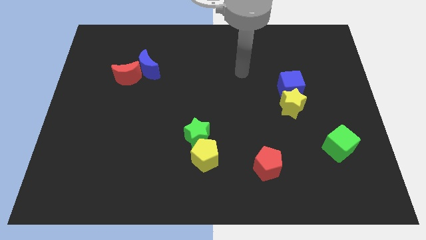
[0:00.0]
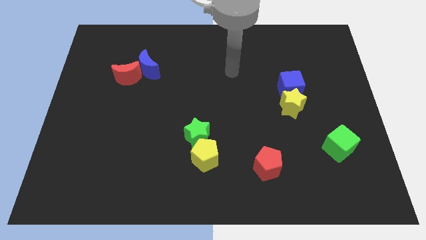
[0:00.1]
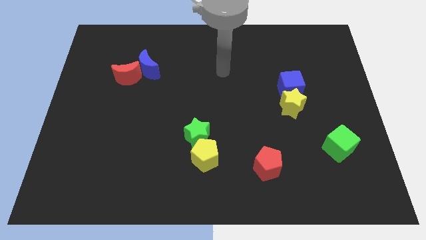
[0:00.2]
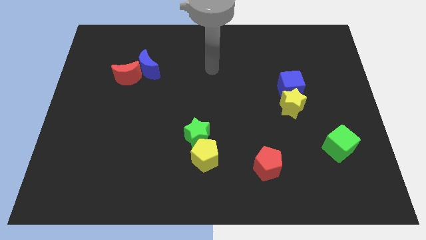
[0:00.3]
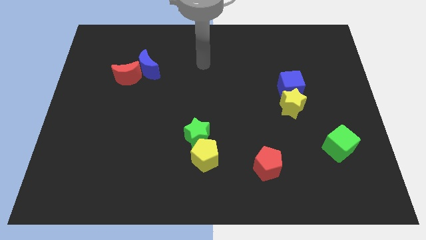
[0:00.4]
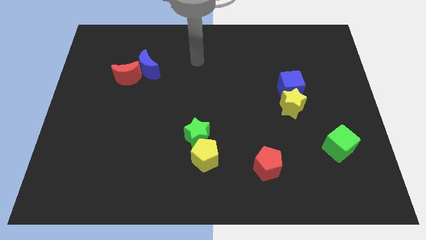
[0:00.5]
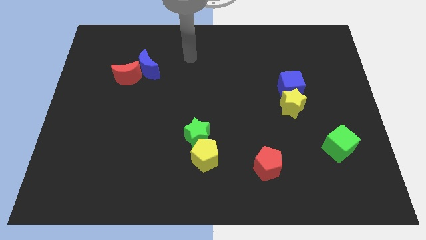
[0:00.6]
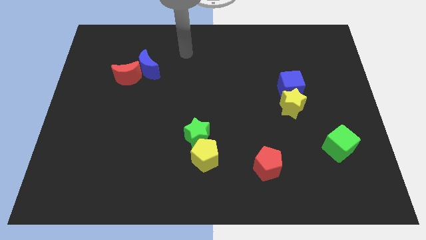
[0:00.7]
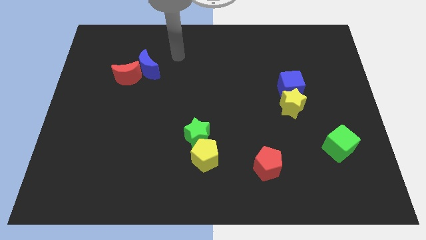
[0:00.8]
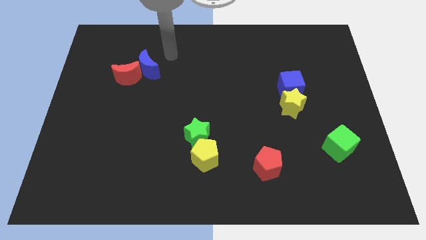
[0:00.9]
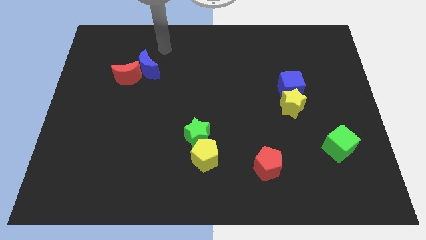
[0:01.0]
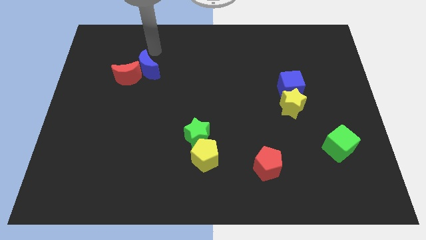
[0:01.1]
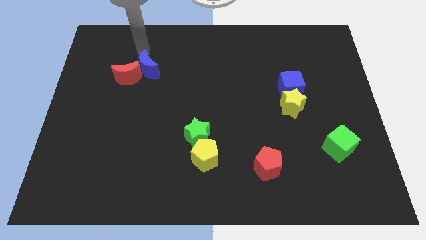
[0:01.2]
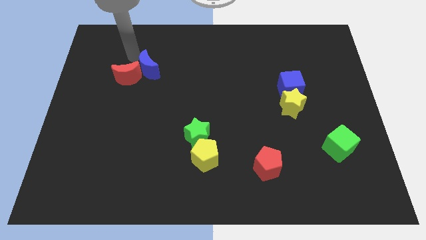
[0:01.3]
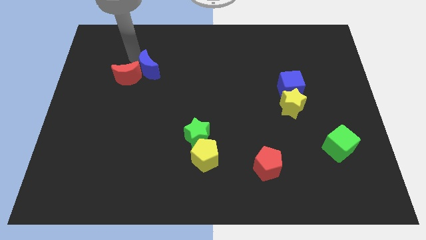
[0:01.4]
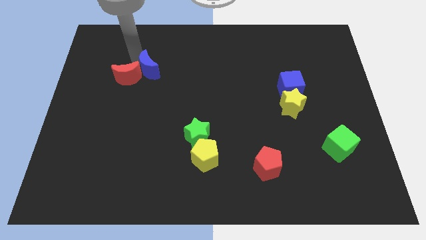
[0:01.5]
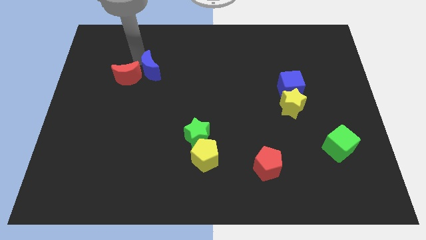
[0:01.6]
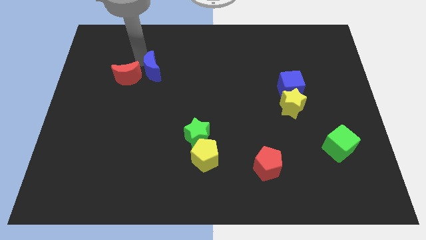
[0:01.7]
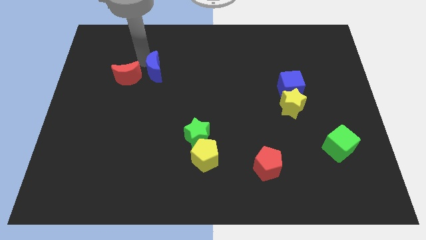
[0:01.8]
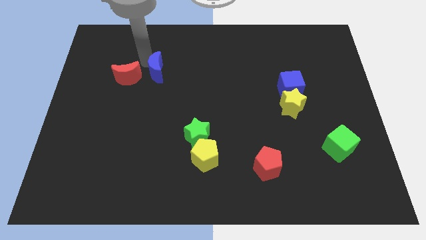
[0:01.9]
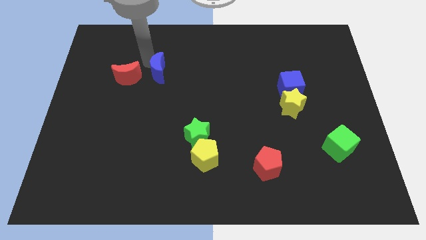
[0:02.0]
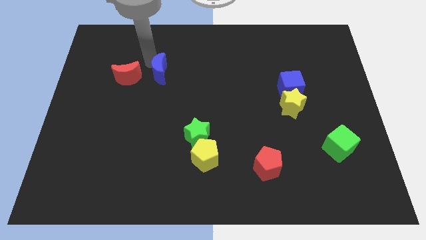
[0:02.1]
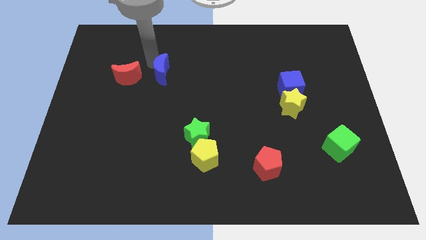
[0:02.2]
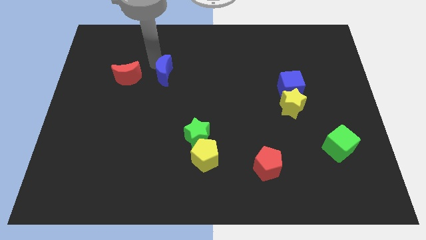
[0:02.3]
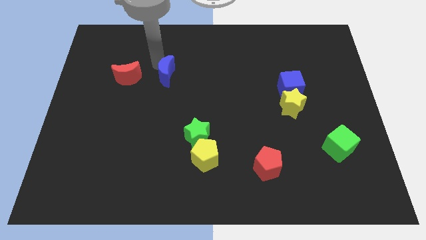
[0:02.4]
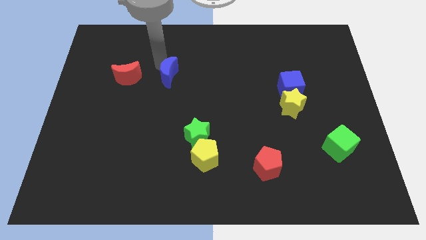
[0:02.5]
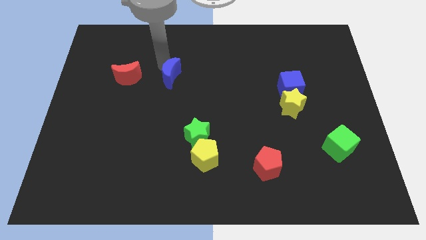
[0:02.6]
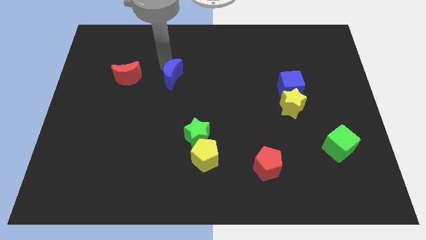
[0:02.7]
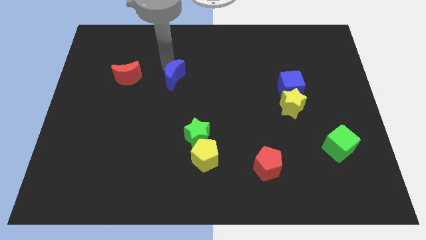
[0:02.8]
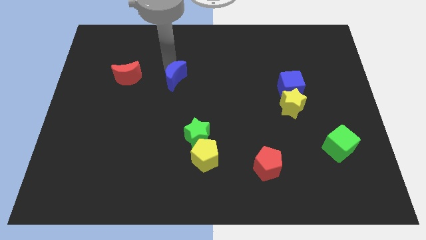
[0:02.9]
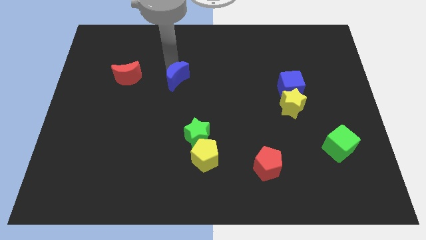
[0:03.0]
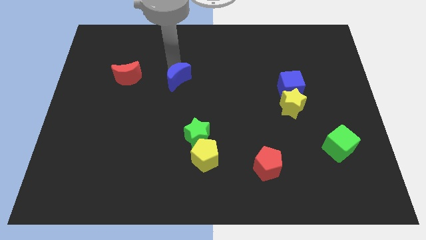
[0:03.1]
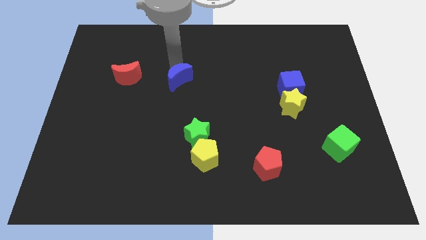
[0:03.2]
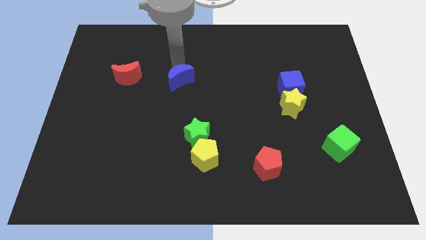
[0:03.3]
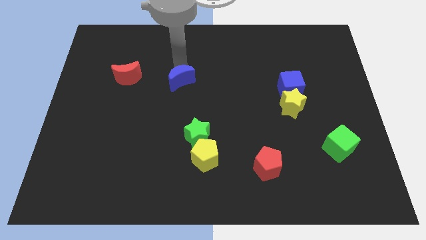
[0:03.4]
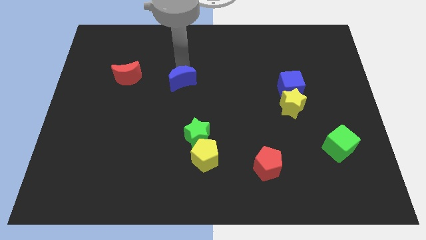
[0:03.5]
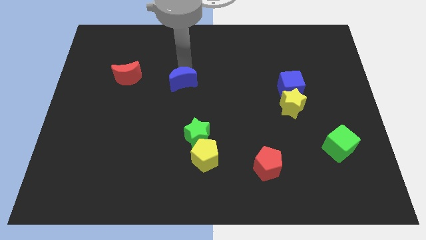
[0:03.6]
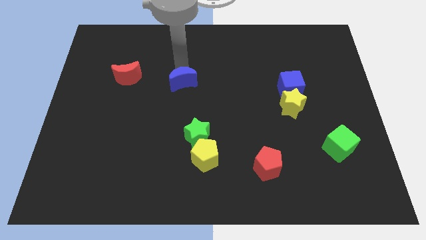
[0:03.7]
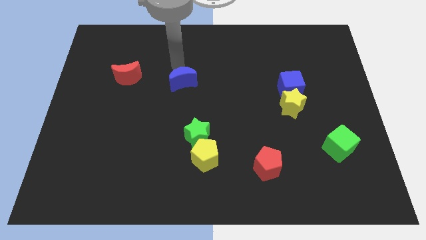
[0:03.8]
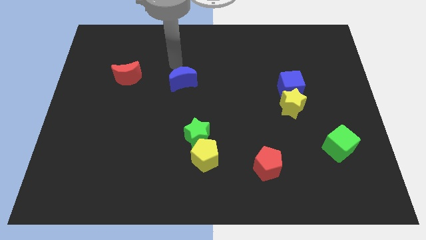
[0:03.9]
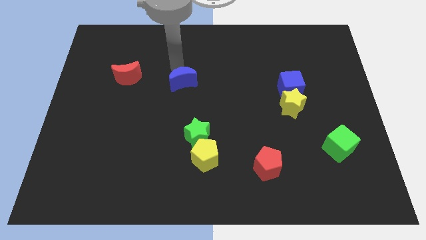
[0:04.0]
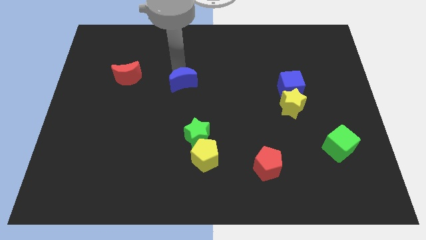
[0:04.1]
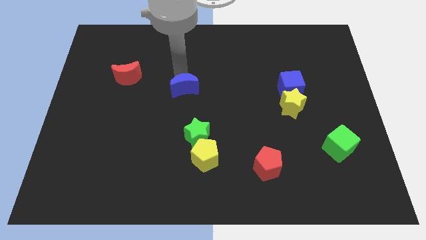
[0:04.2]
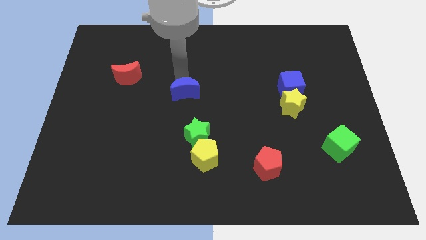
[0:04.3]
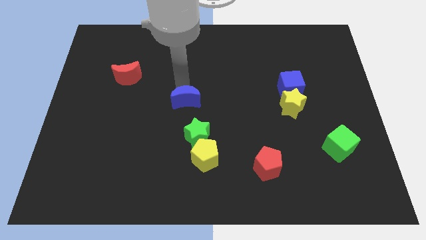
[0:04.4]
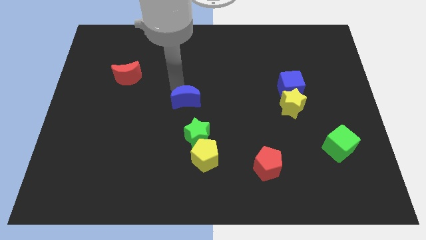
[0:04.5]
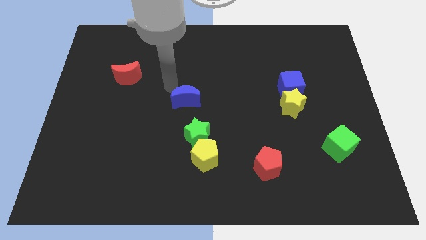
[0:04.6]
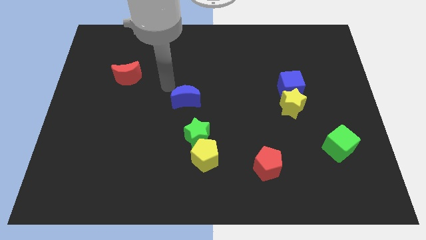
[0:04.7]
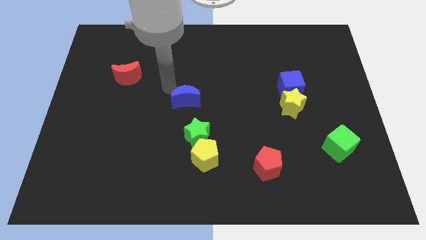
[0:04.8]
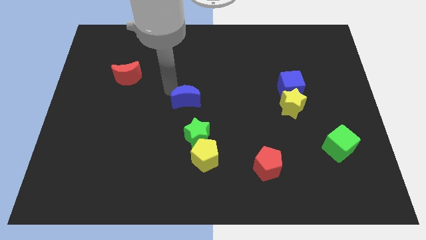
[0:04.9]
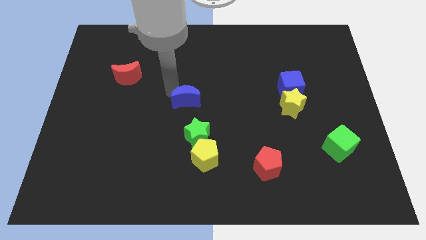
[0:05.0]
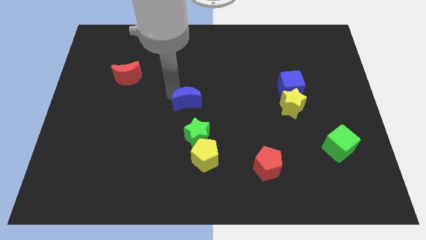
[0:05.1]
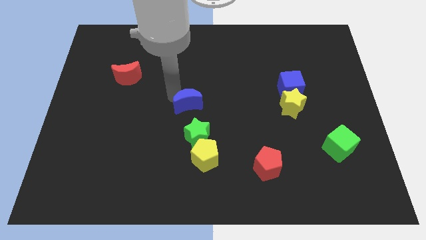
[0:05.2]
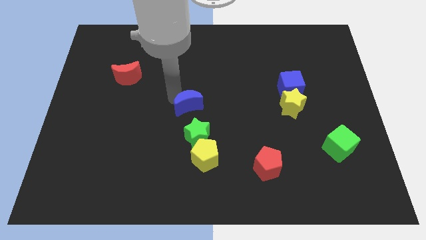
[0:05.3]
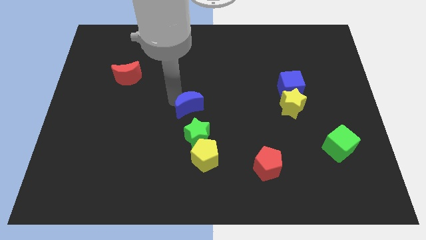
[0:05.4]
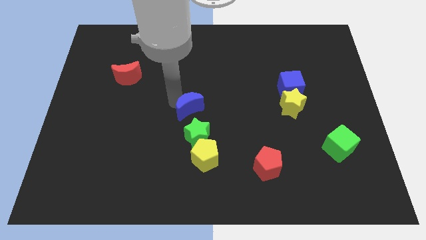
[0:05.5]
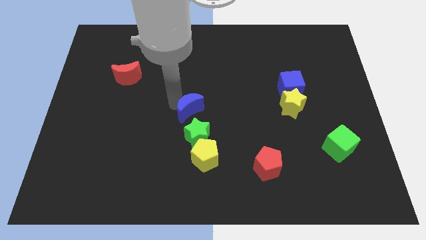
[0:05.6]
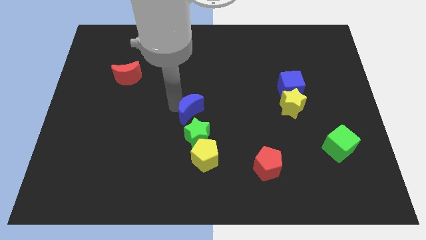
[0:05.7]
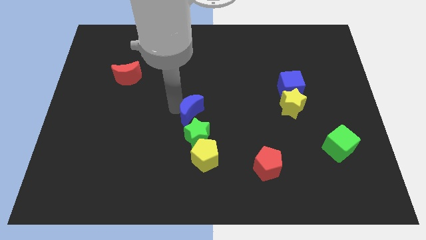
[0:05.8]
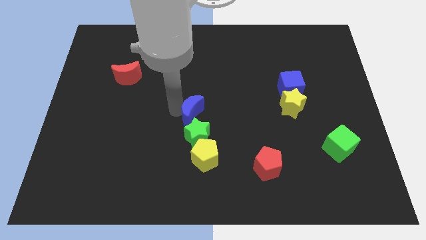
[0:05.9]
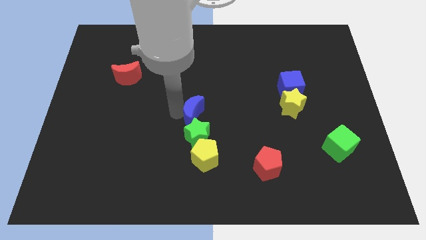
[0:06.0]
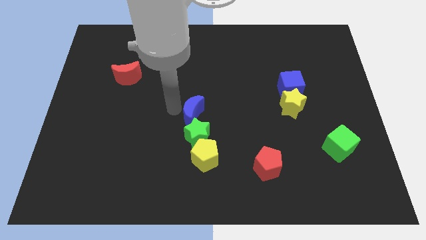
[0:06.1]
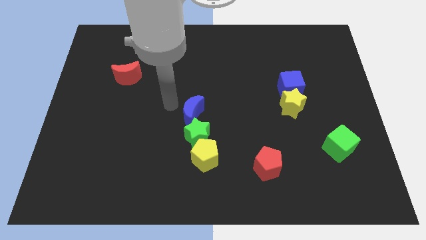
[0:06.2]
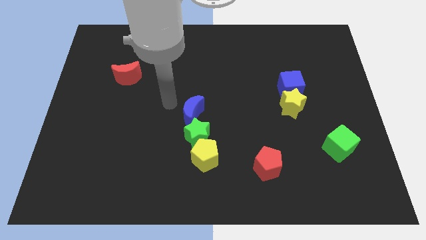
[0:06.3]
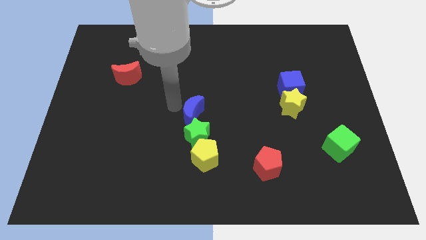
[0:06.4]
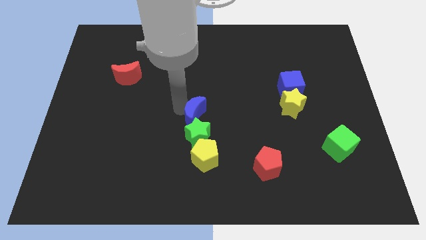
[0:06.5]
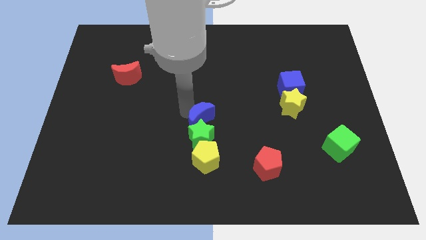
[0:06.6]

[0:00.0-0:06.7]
slide the blue moon down and then to the right

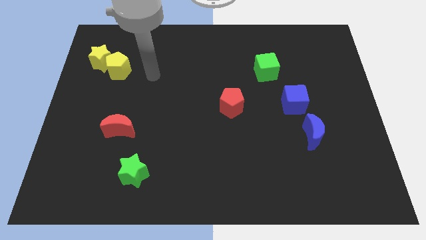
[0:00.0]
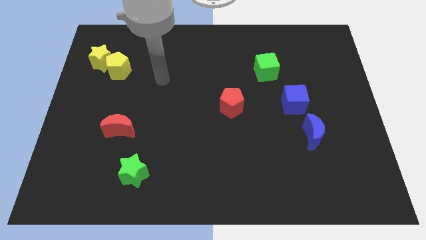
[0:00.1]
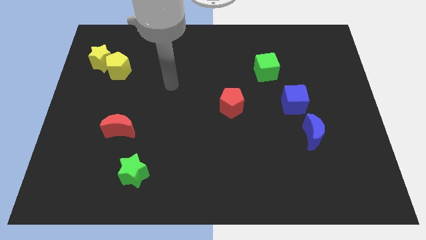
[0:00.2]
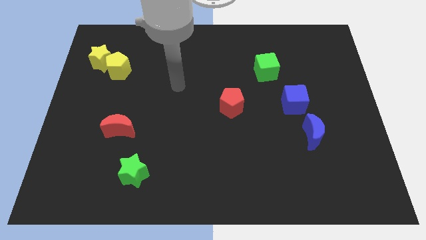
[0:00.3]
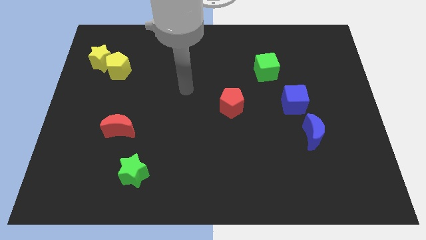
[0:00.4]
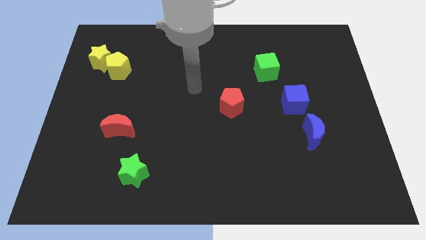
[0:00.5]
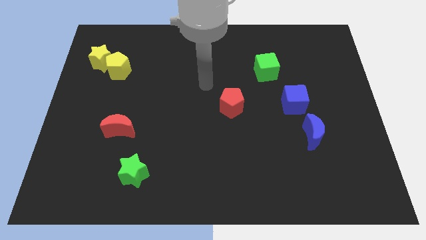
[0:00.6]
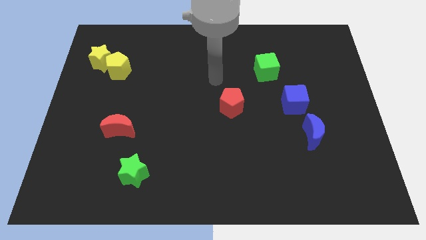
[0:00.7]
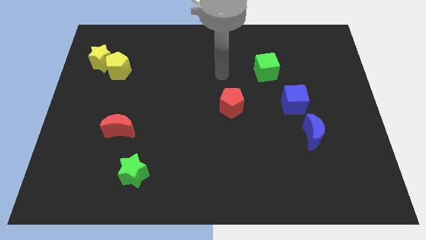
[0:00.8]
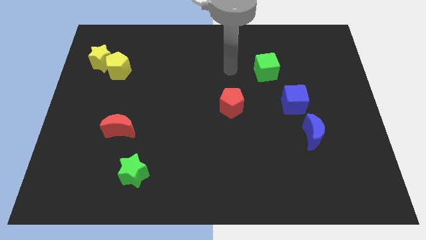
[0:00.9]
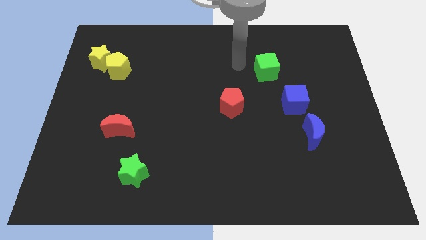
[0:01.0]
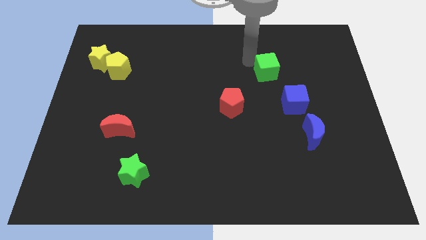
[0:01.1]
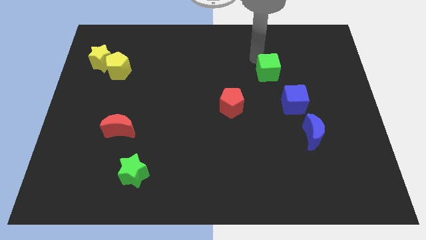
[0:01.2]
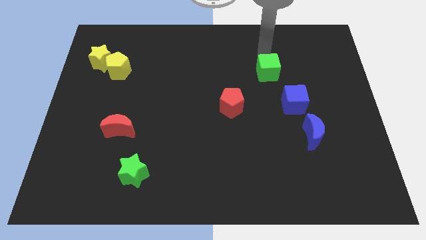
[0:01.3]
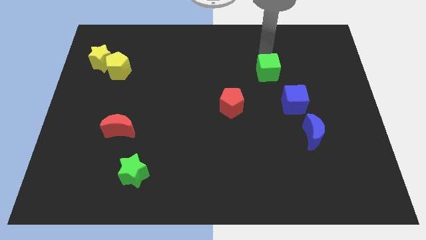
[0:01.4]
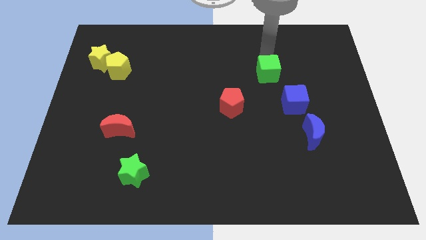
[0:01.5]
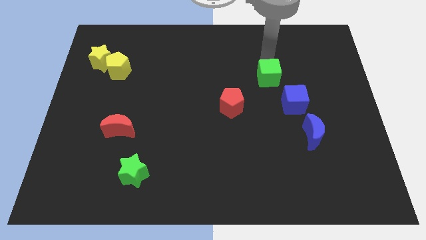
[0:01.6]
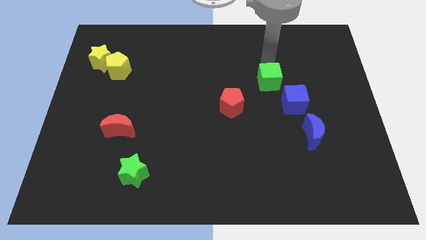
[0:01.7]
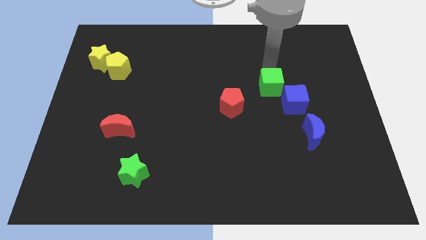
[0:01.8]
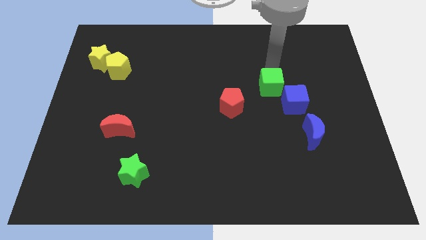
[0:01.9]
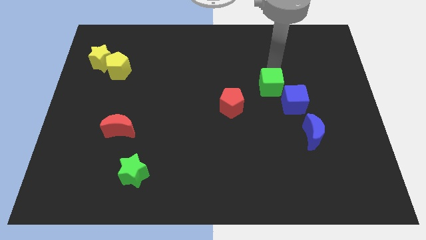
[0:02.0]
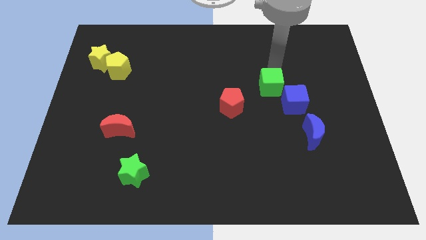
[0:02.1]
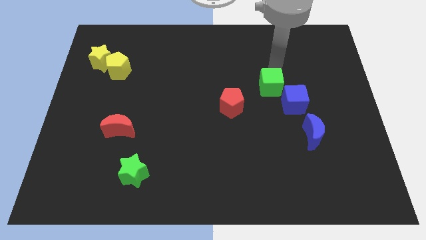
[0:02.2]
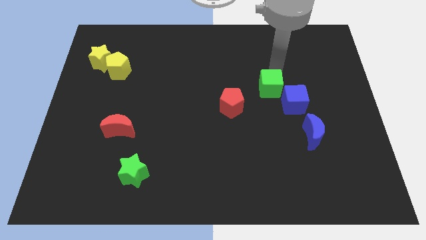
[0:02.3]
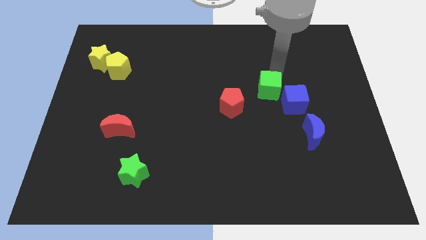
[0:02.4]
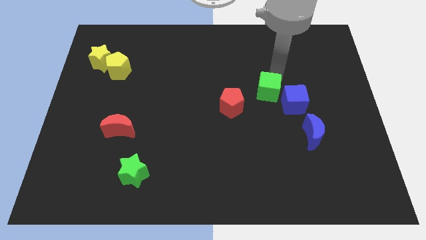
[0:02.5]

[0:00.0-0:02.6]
slide the green cube a bit downwards
